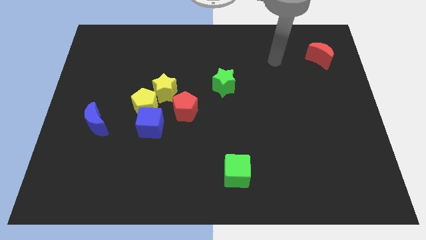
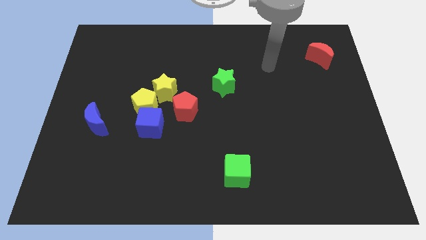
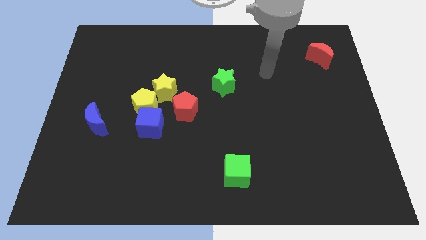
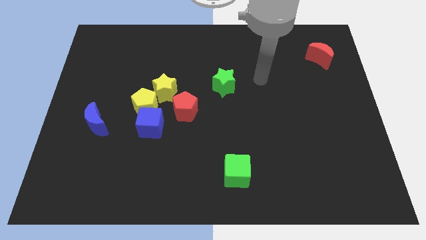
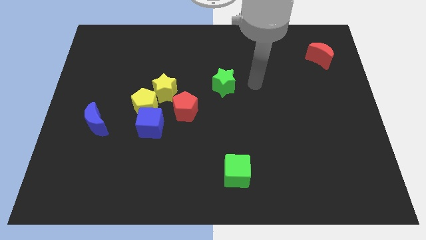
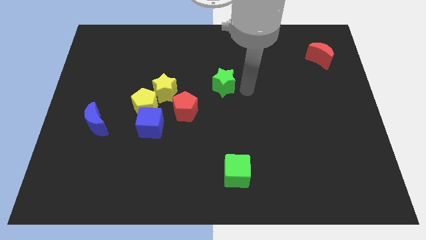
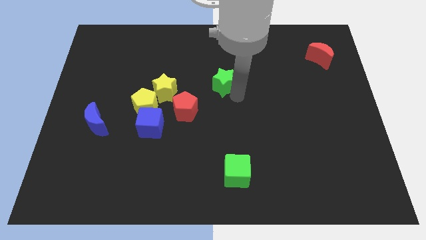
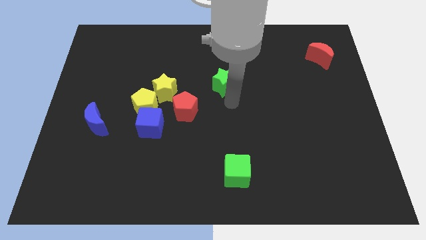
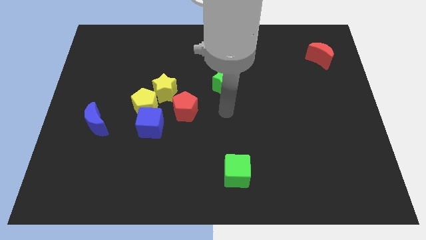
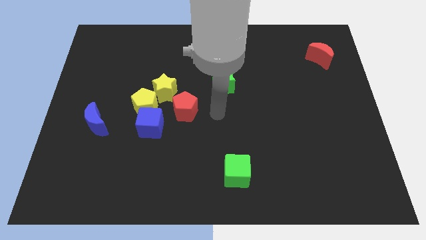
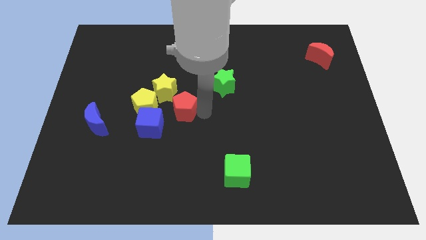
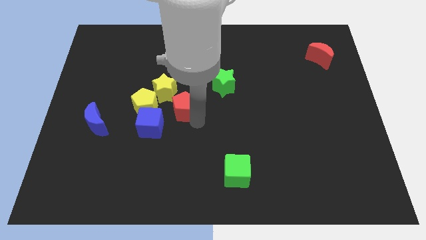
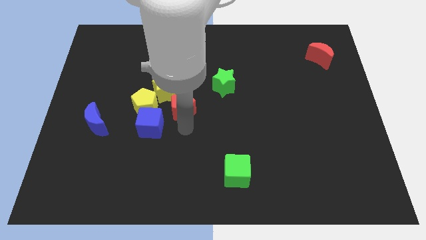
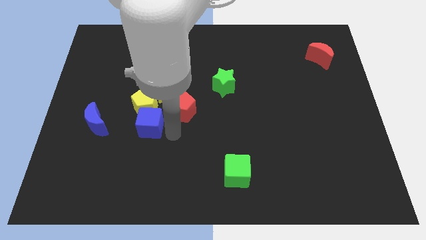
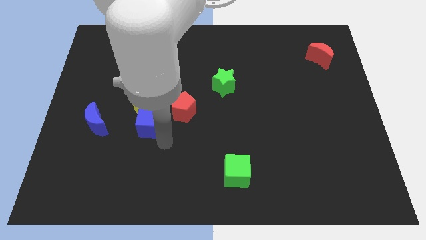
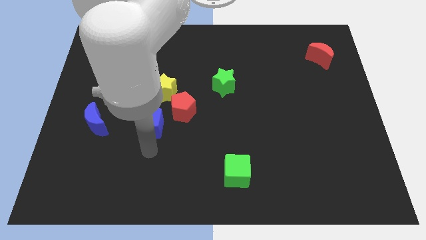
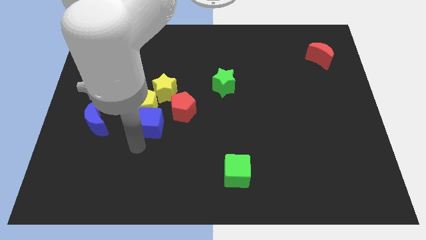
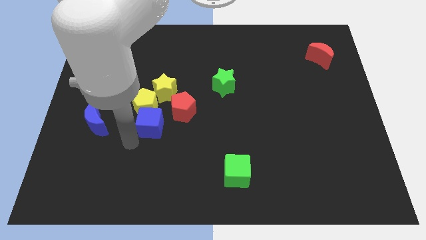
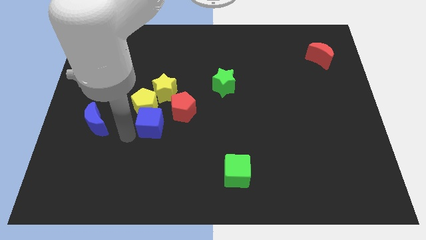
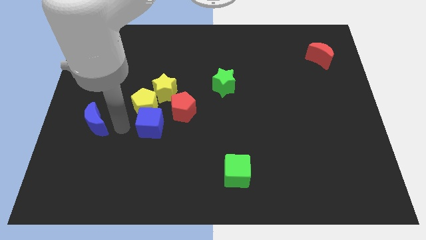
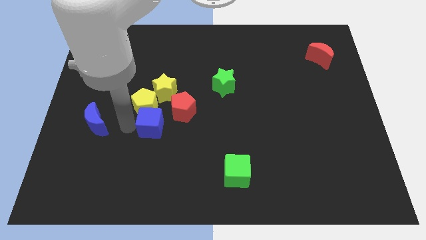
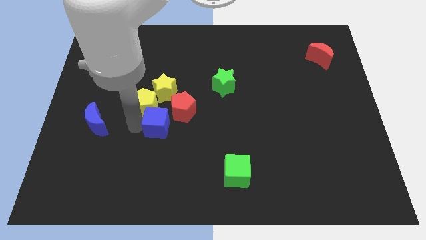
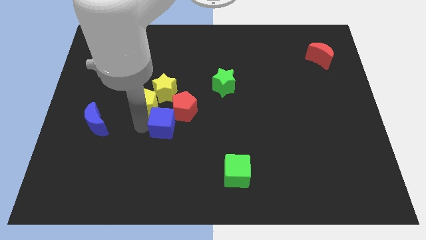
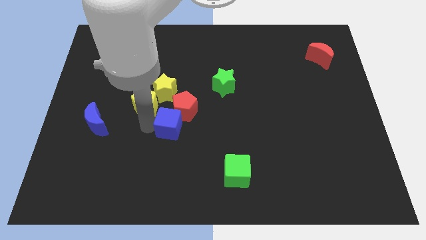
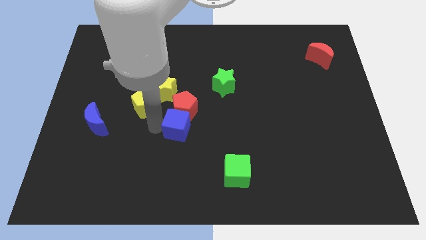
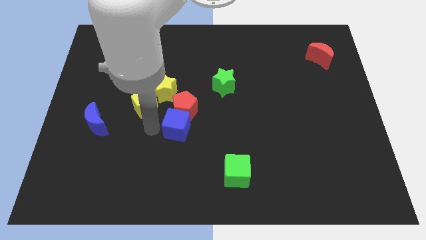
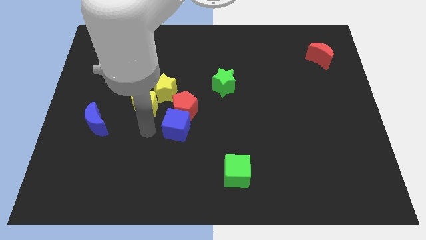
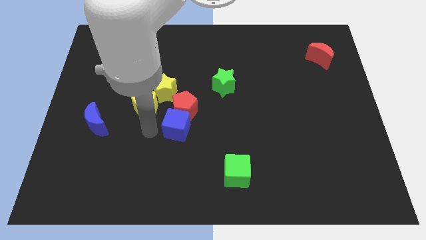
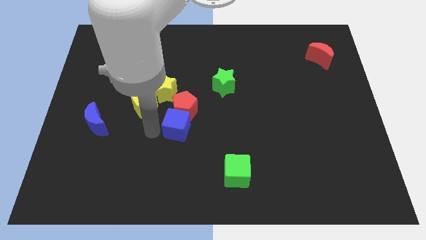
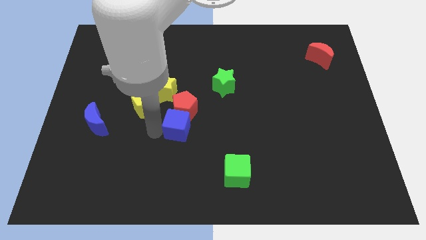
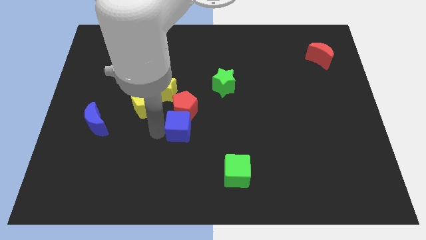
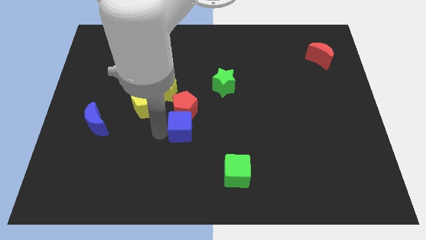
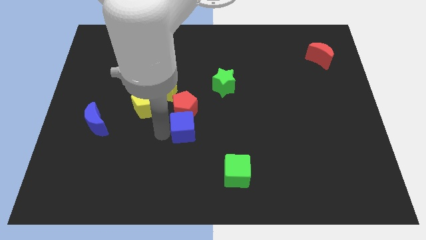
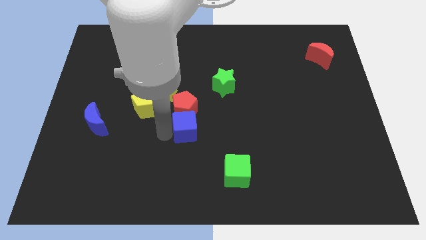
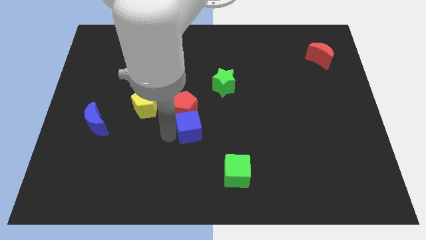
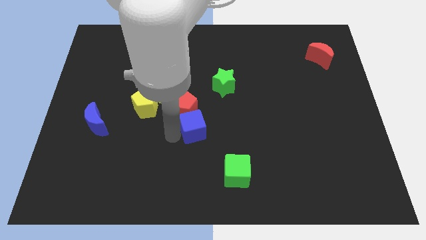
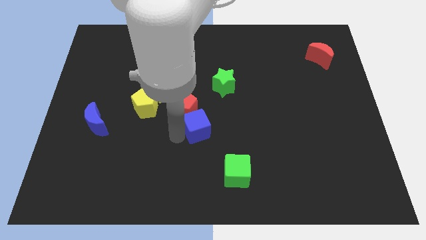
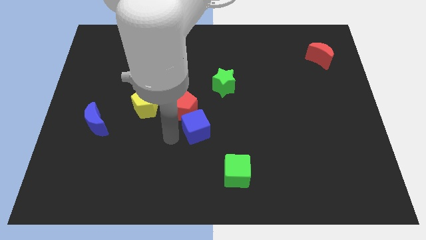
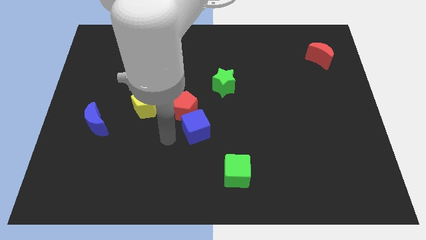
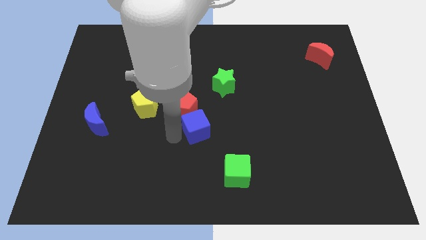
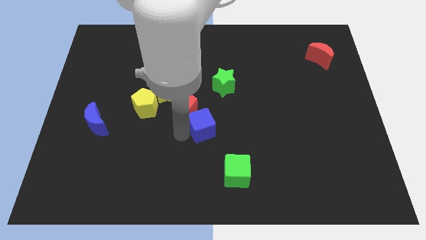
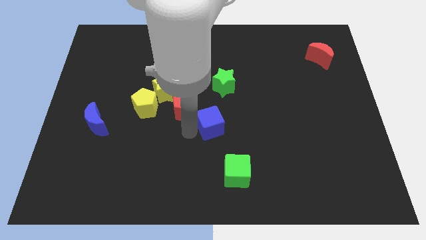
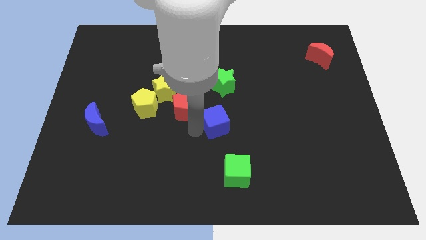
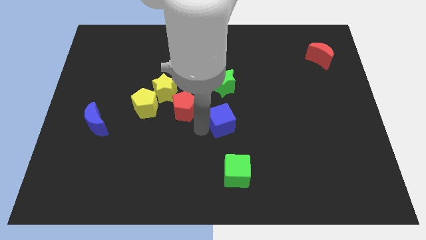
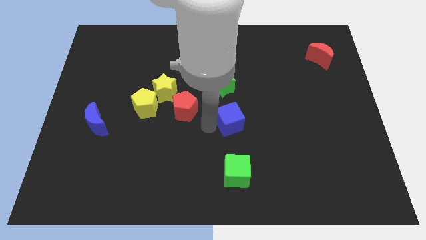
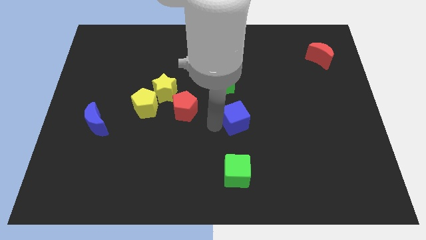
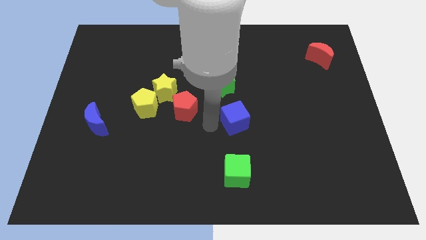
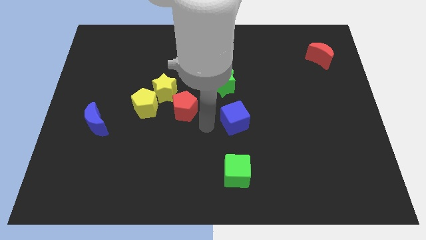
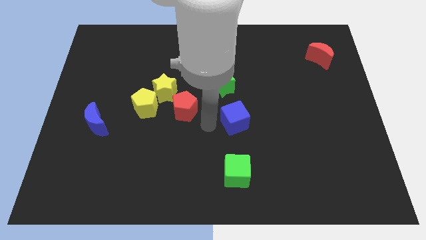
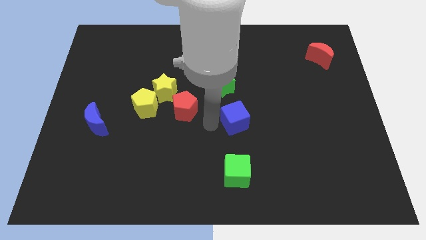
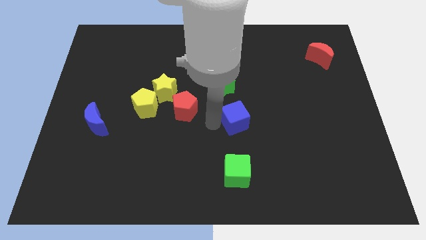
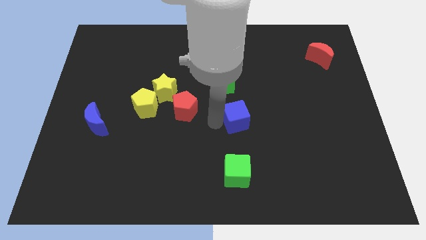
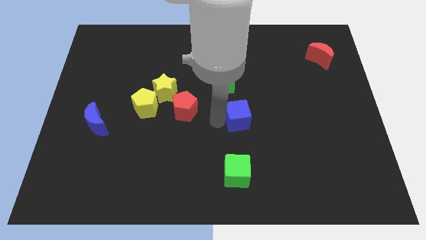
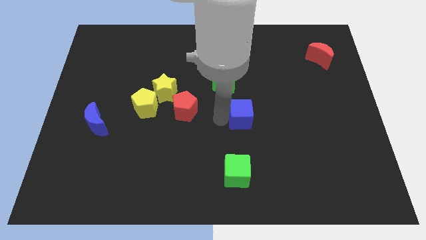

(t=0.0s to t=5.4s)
push the blue cube right

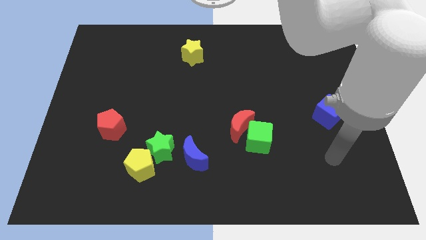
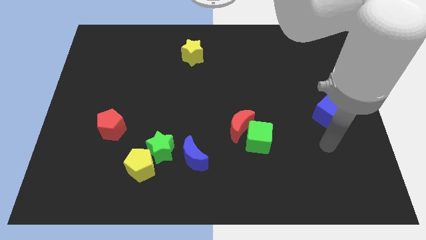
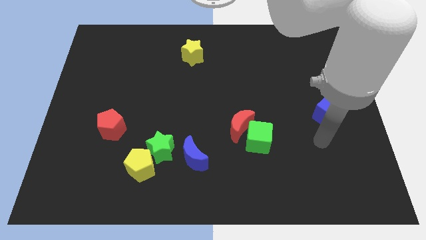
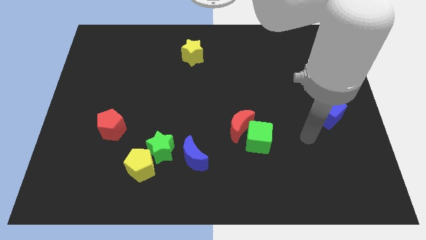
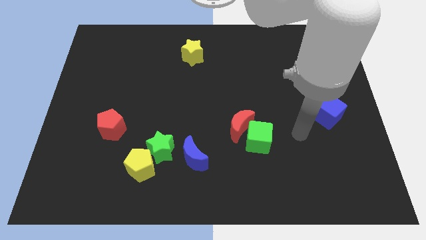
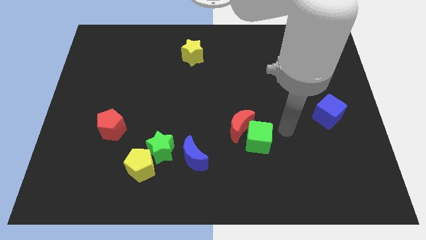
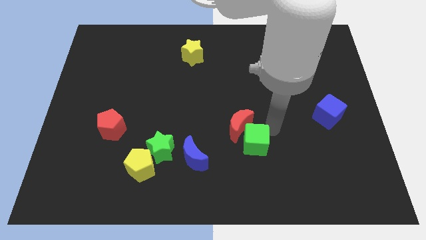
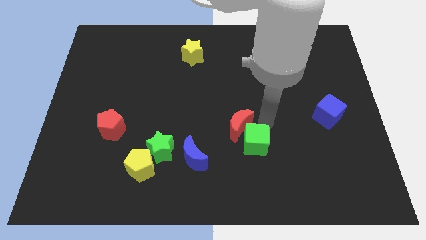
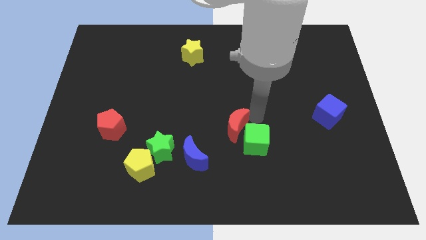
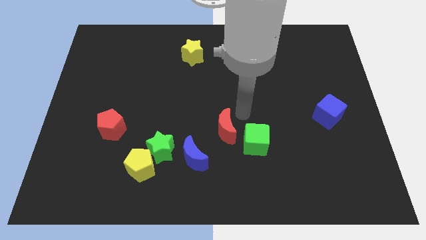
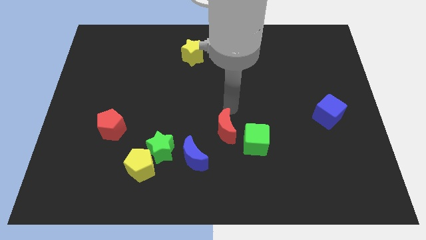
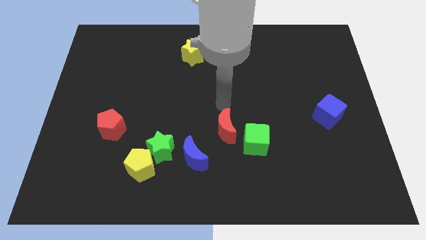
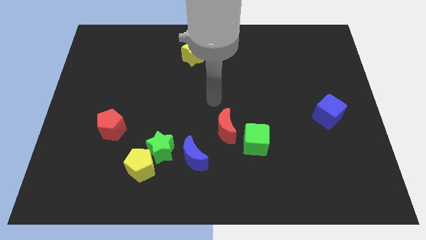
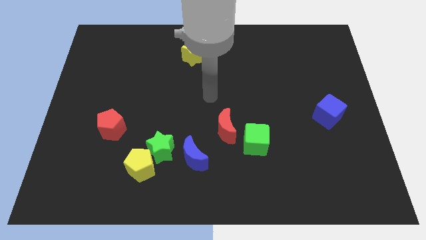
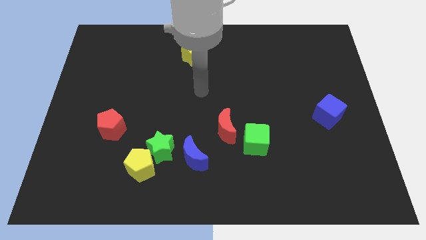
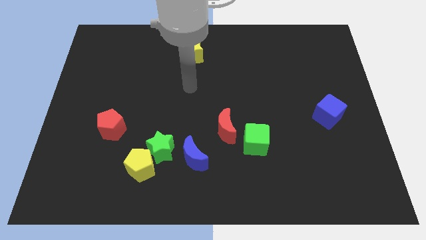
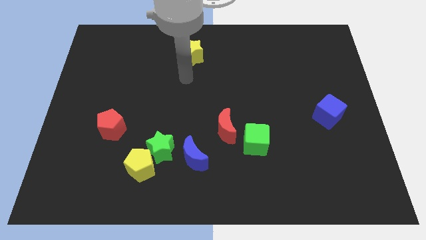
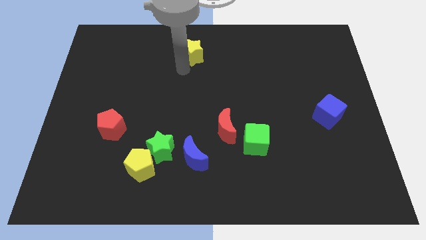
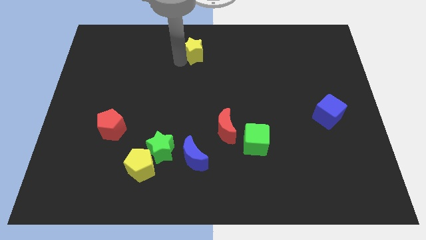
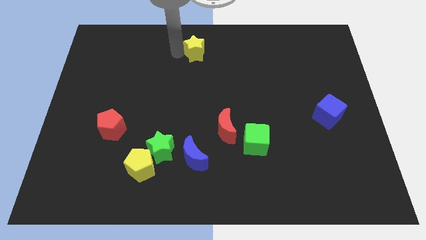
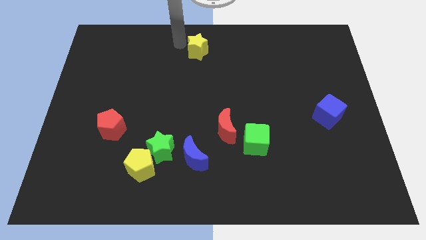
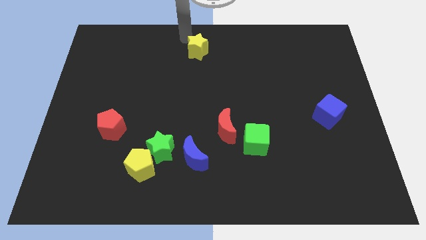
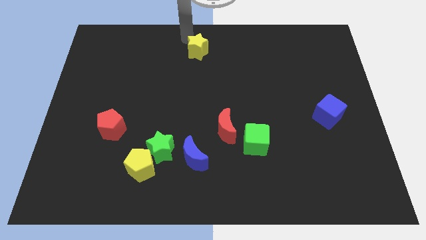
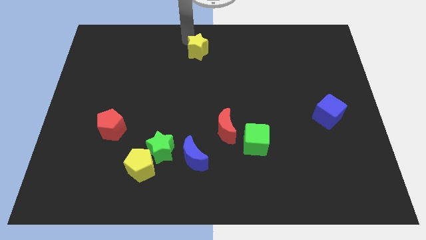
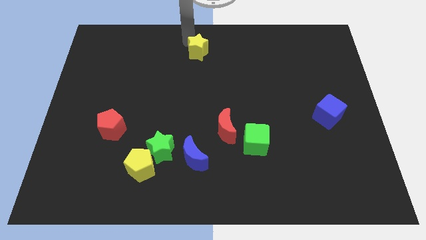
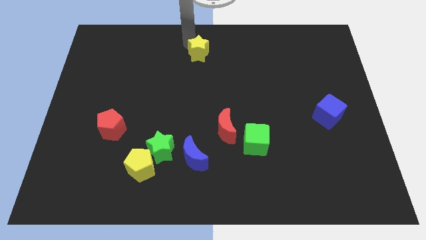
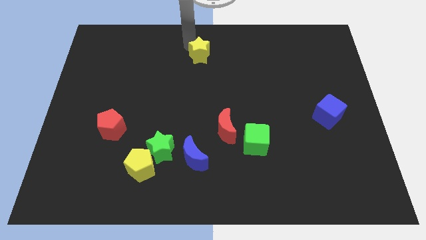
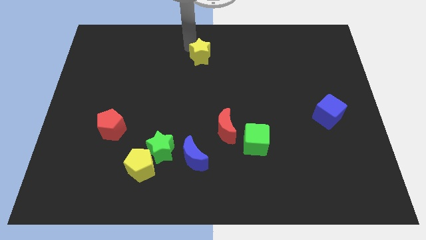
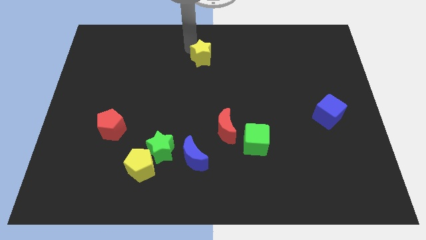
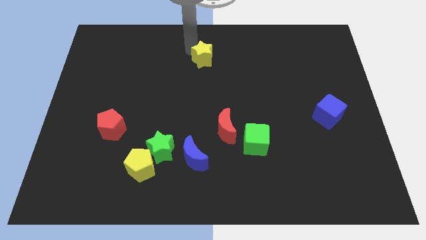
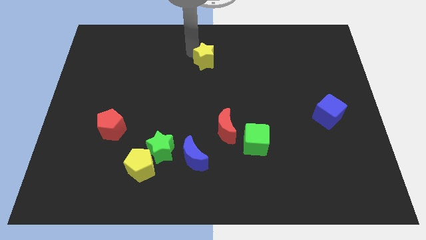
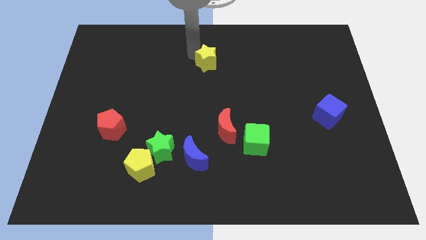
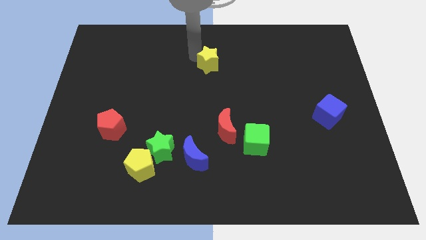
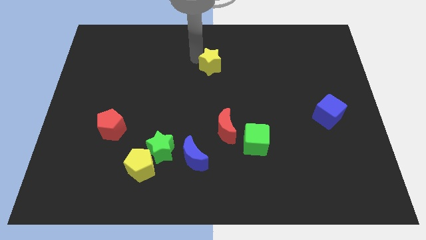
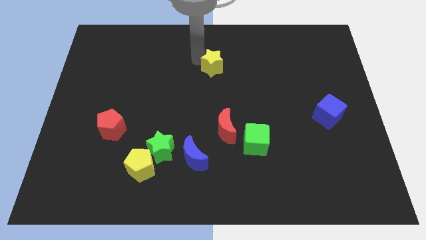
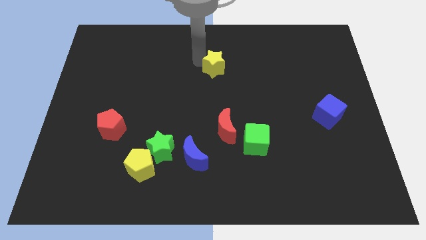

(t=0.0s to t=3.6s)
move the yellow star a little downwards and then to the right
